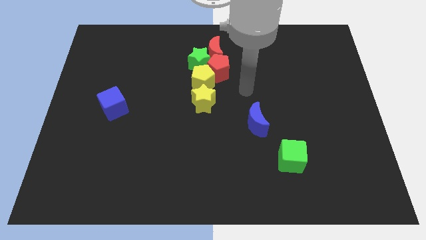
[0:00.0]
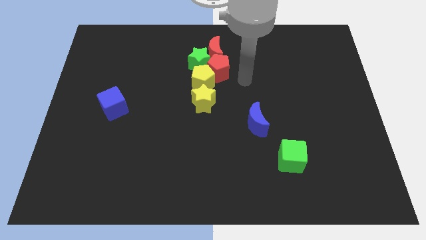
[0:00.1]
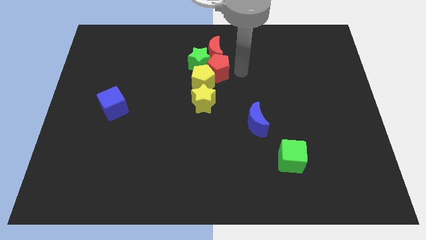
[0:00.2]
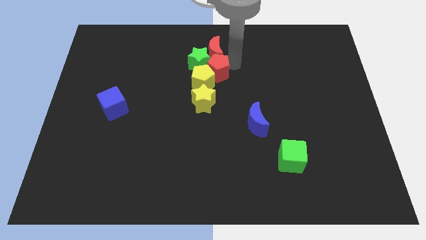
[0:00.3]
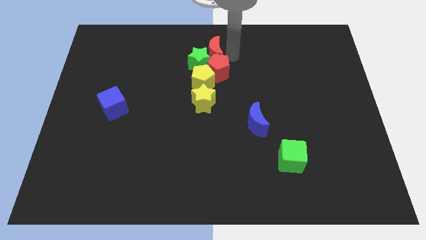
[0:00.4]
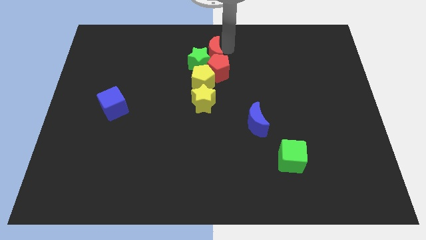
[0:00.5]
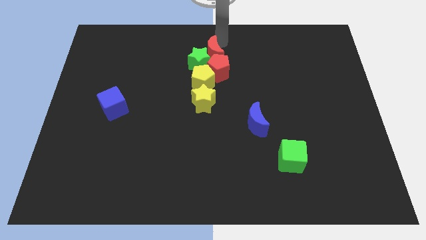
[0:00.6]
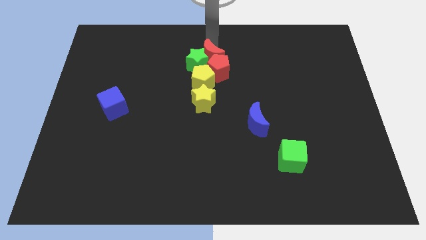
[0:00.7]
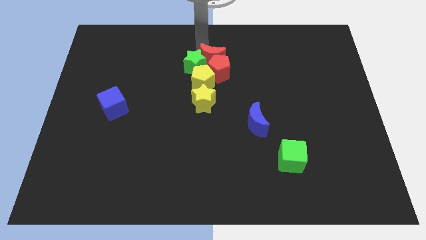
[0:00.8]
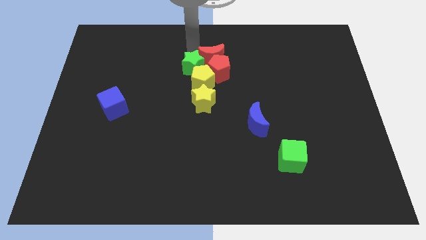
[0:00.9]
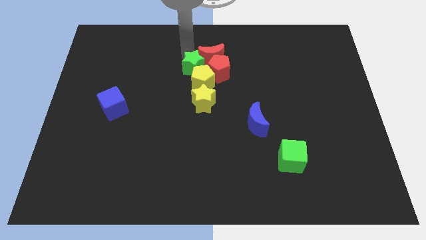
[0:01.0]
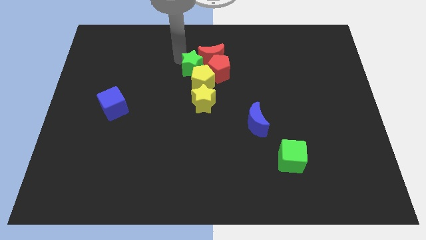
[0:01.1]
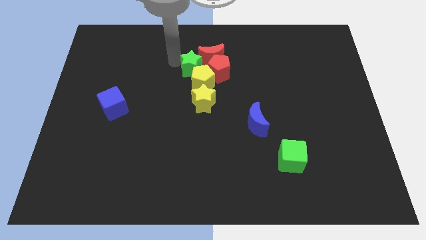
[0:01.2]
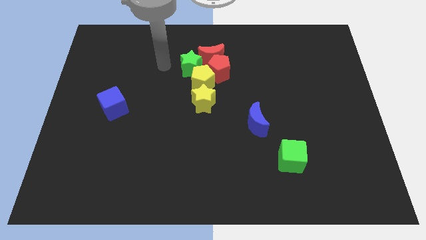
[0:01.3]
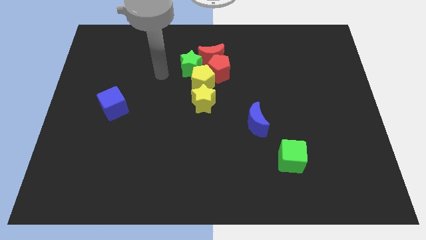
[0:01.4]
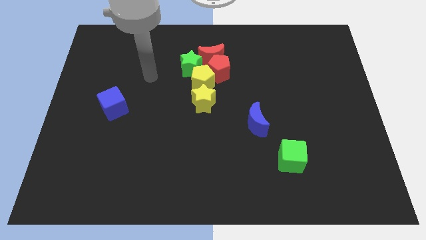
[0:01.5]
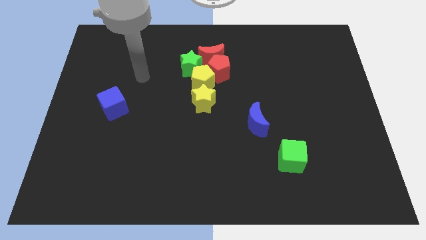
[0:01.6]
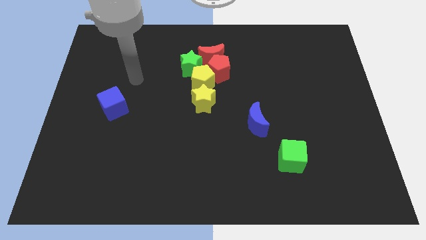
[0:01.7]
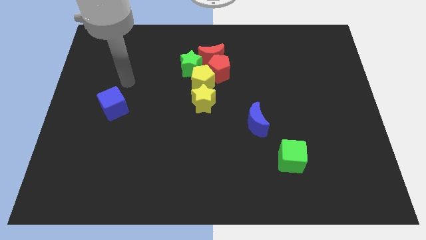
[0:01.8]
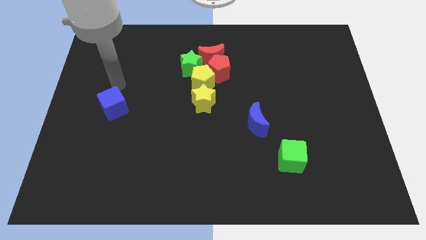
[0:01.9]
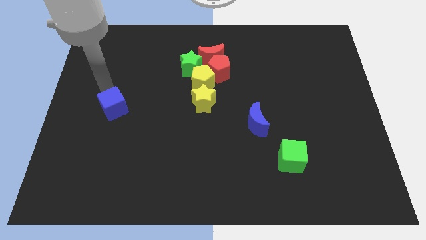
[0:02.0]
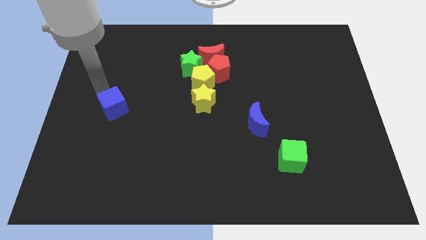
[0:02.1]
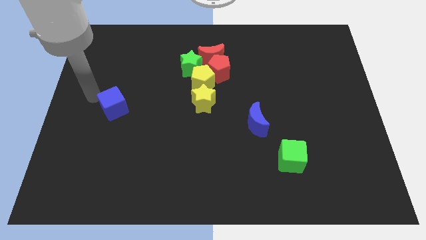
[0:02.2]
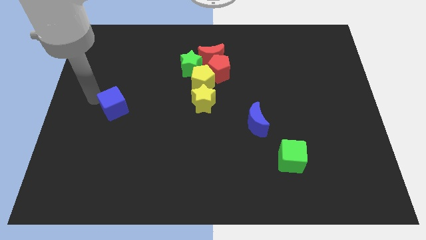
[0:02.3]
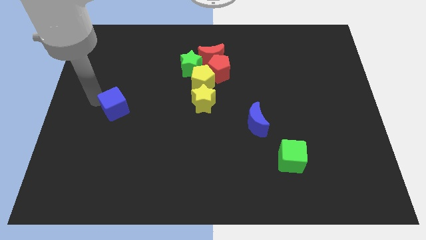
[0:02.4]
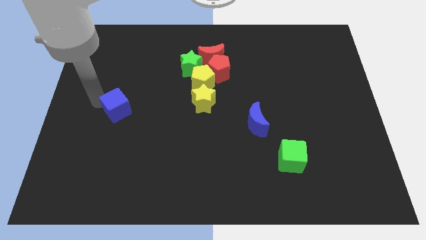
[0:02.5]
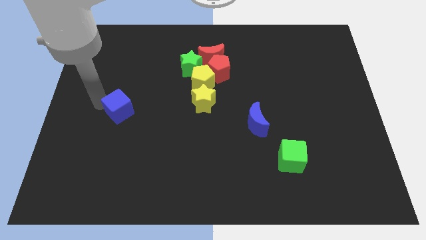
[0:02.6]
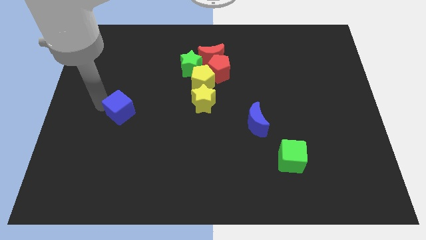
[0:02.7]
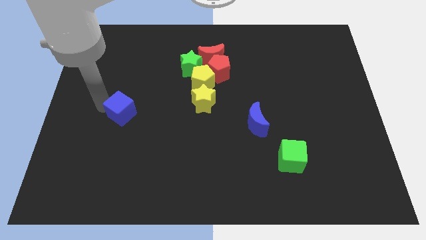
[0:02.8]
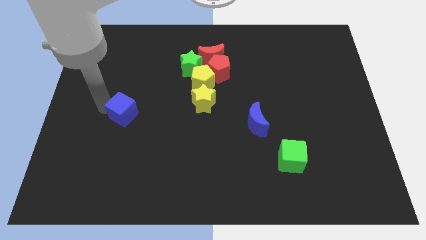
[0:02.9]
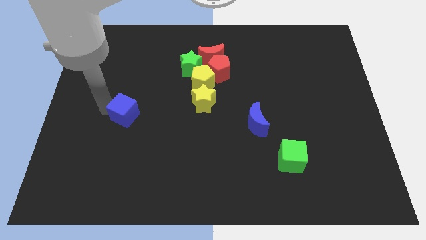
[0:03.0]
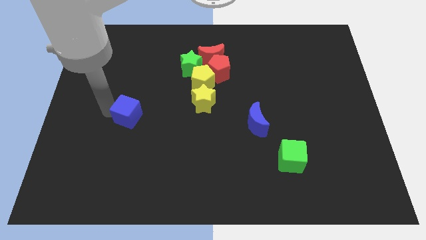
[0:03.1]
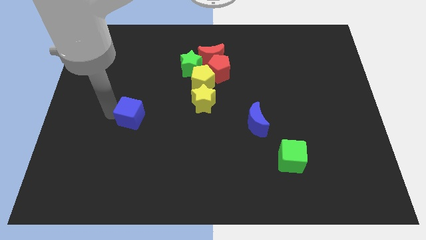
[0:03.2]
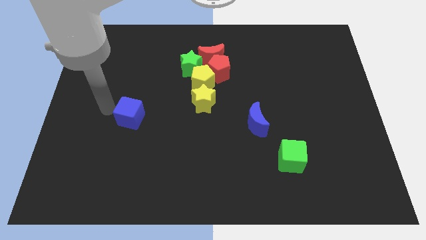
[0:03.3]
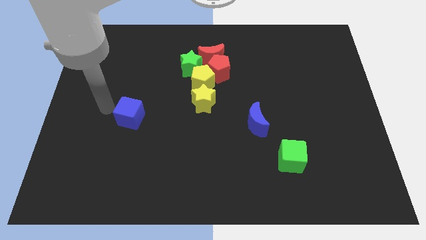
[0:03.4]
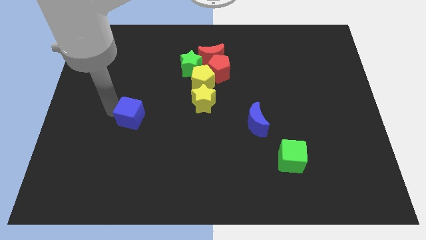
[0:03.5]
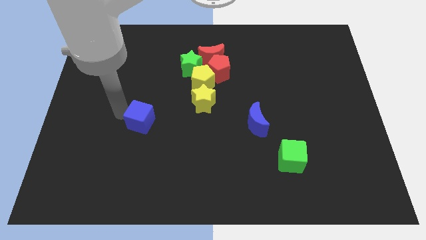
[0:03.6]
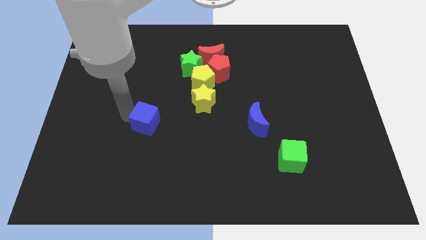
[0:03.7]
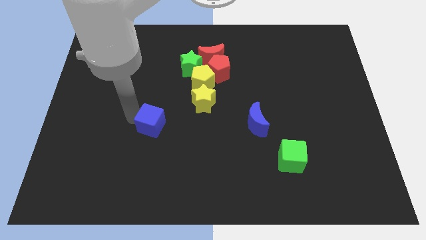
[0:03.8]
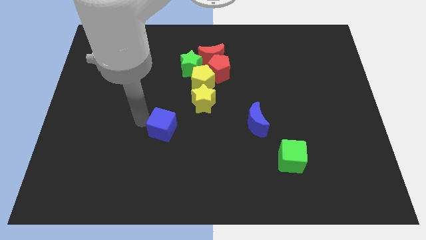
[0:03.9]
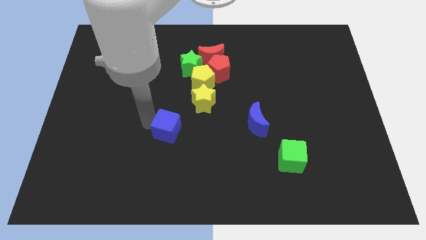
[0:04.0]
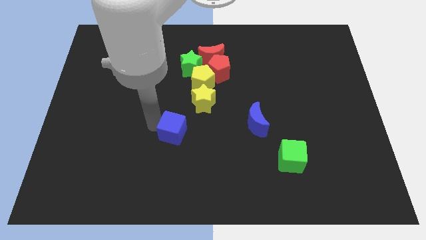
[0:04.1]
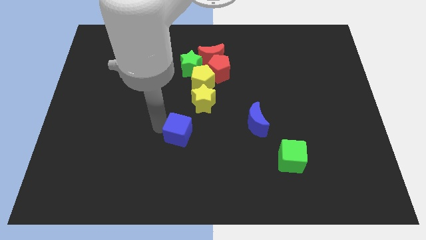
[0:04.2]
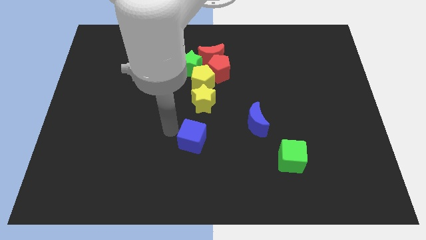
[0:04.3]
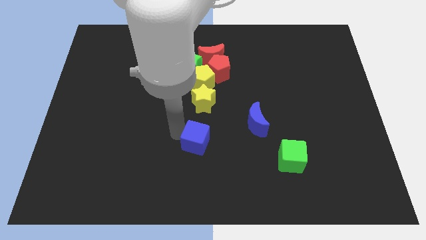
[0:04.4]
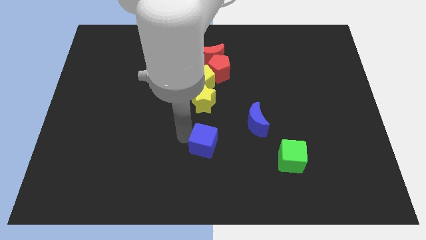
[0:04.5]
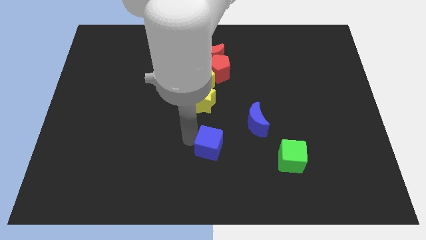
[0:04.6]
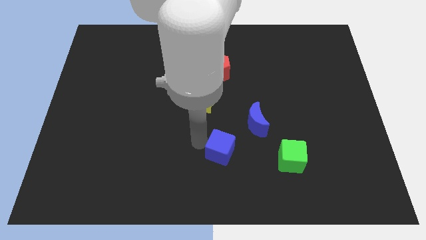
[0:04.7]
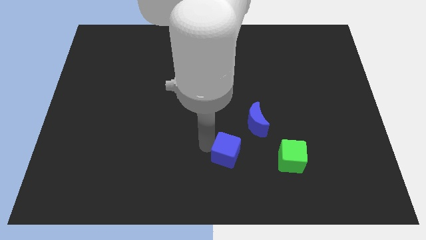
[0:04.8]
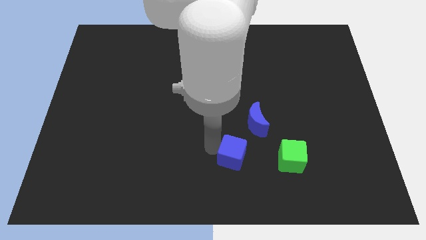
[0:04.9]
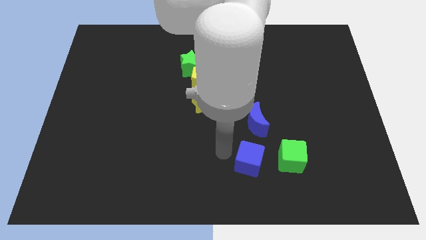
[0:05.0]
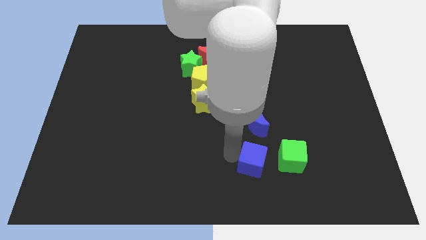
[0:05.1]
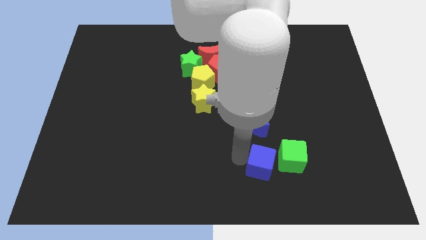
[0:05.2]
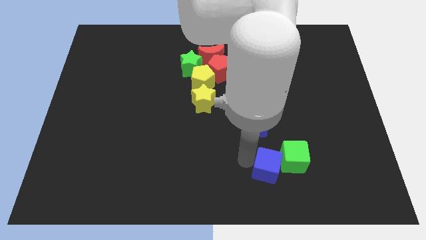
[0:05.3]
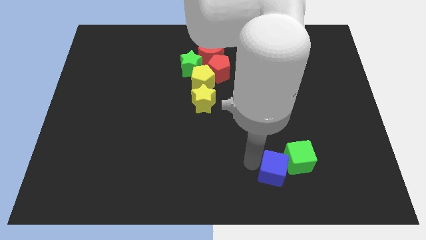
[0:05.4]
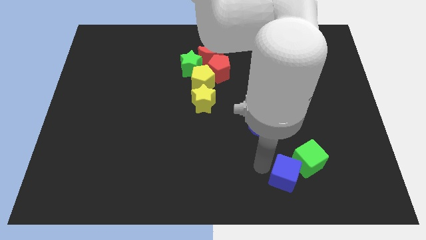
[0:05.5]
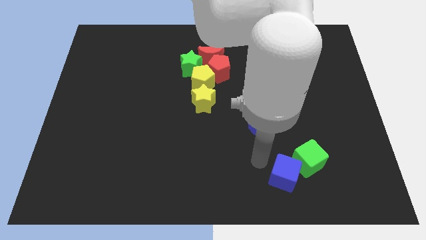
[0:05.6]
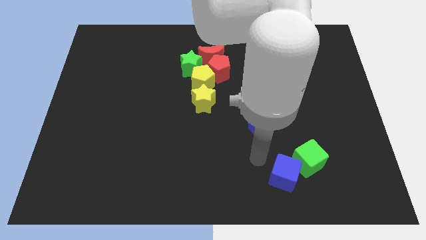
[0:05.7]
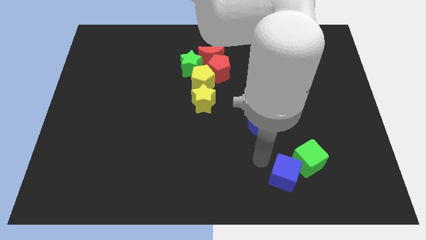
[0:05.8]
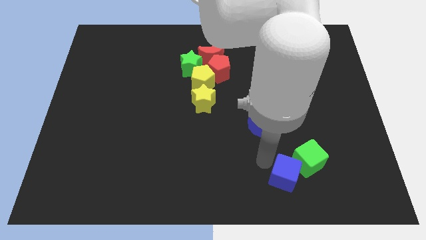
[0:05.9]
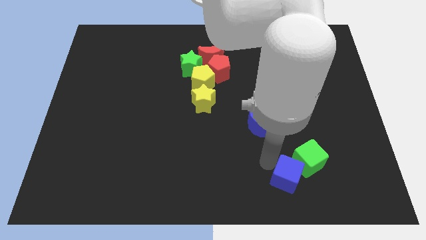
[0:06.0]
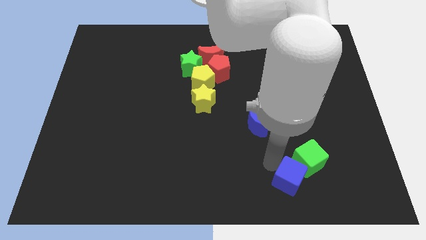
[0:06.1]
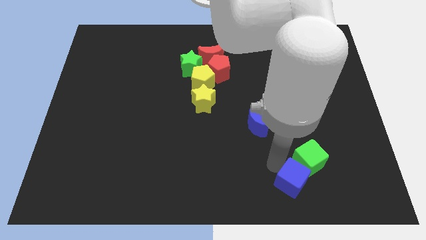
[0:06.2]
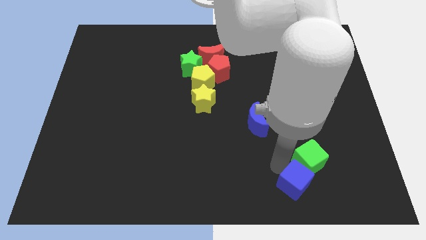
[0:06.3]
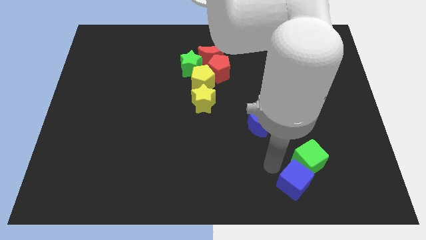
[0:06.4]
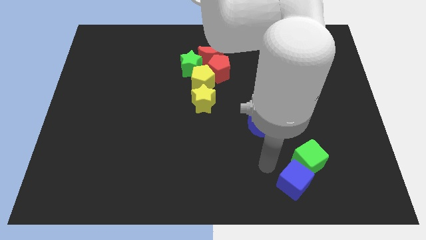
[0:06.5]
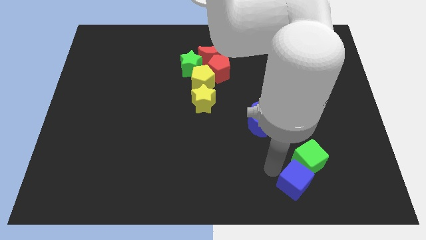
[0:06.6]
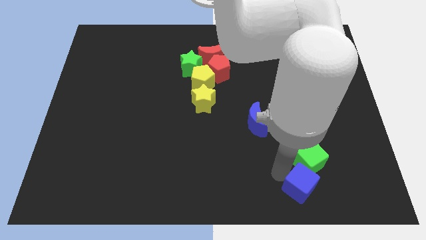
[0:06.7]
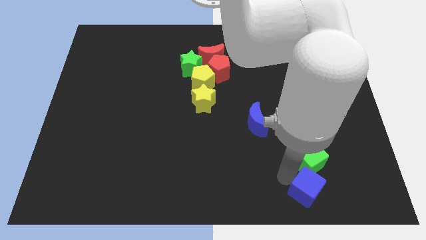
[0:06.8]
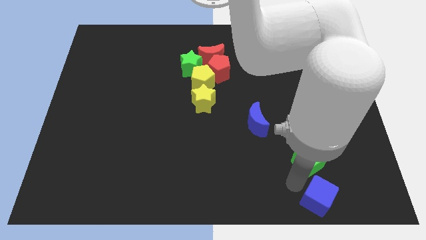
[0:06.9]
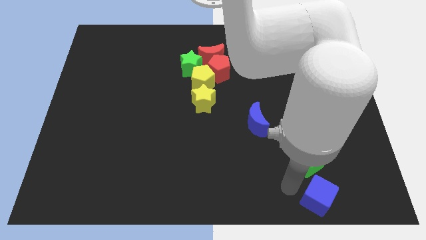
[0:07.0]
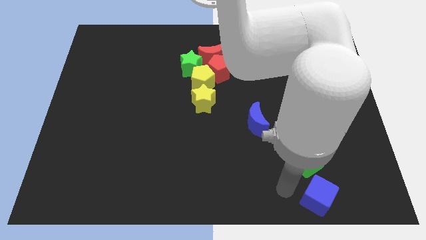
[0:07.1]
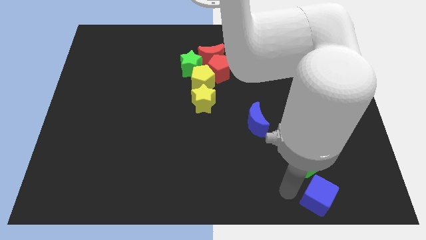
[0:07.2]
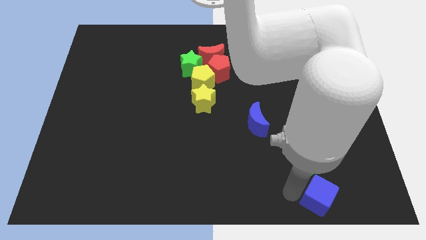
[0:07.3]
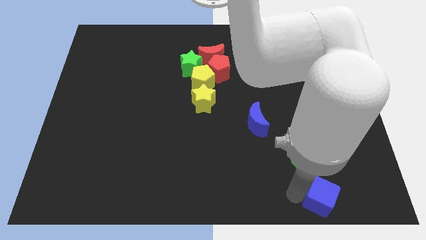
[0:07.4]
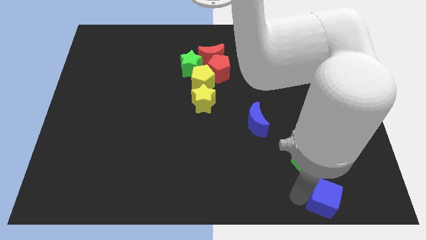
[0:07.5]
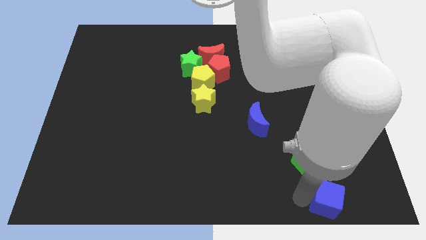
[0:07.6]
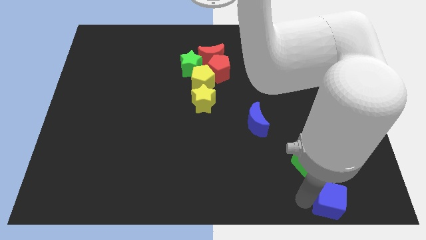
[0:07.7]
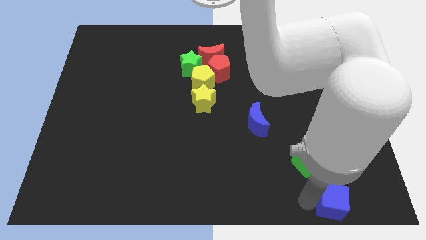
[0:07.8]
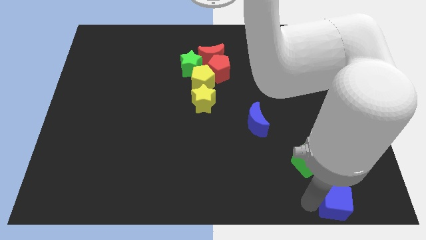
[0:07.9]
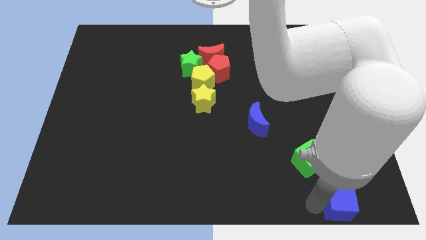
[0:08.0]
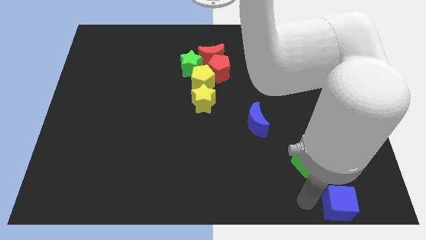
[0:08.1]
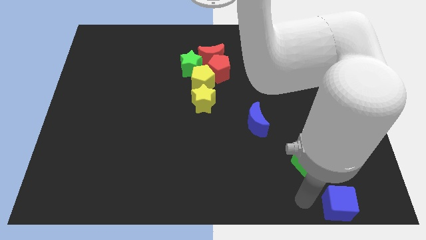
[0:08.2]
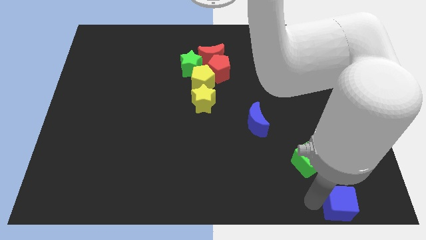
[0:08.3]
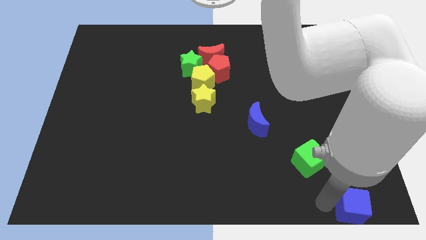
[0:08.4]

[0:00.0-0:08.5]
move the blue cube to the lower right corner
